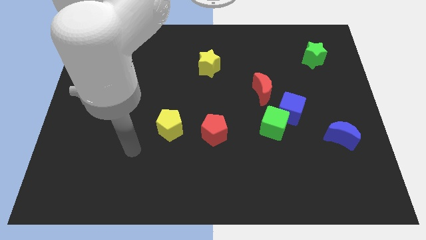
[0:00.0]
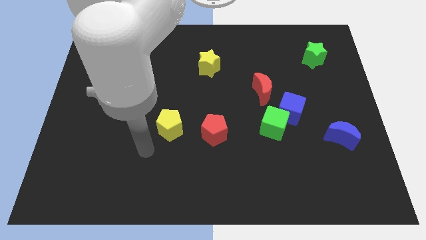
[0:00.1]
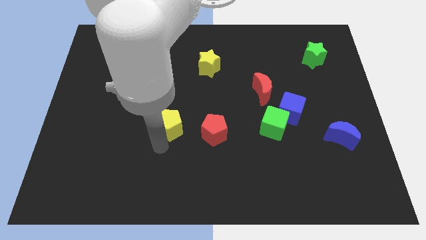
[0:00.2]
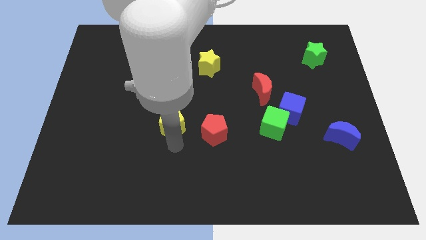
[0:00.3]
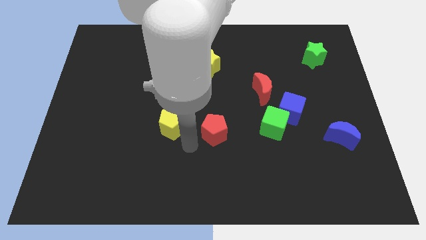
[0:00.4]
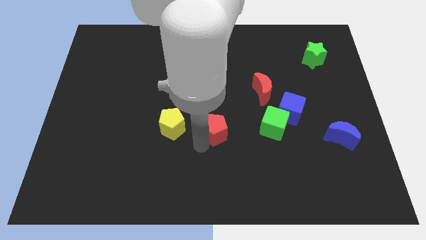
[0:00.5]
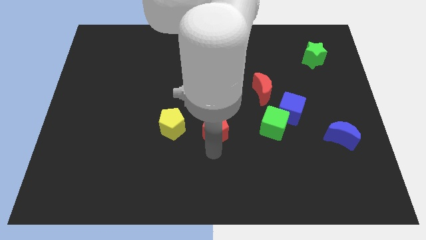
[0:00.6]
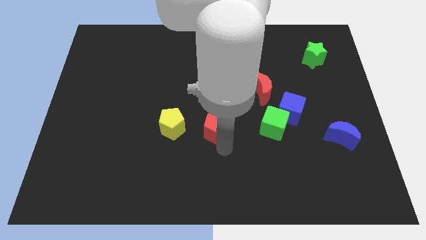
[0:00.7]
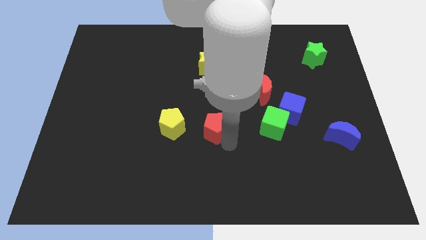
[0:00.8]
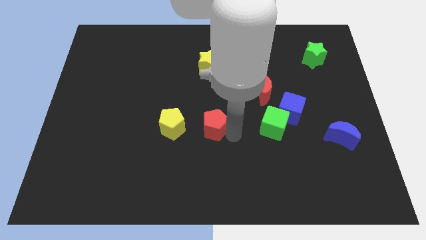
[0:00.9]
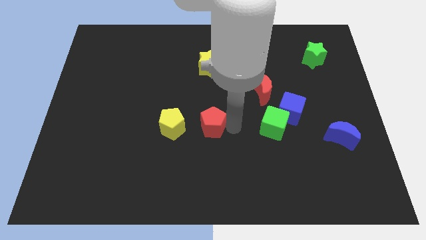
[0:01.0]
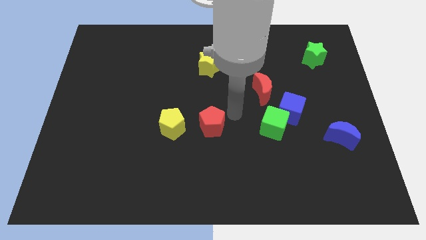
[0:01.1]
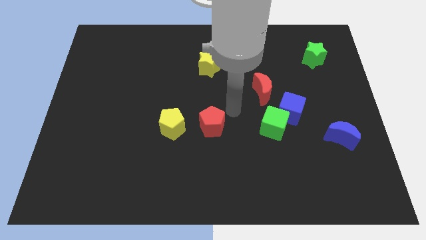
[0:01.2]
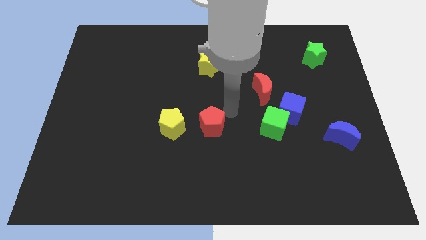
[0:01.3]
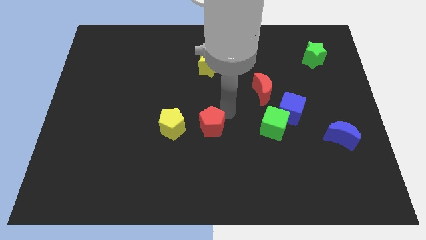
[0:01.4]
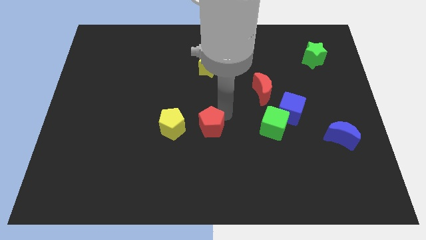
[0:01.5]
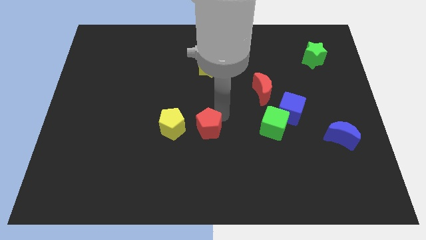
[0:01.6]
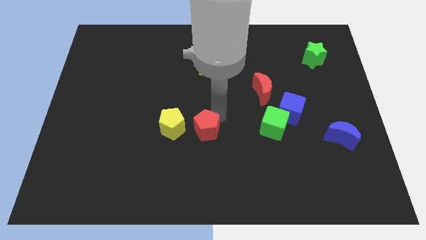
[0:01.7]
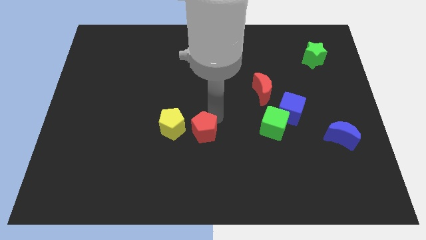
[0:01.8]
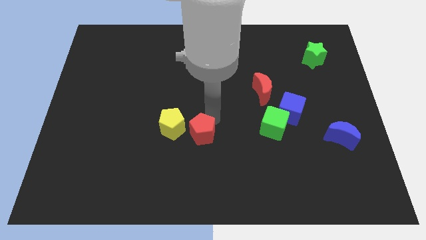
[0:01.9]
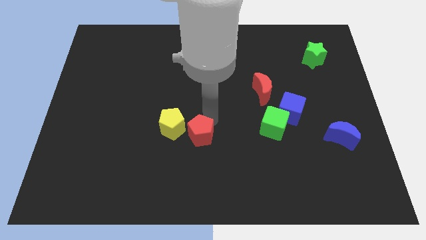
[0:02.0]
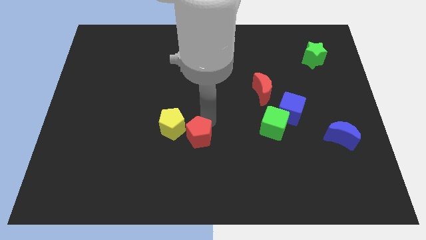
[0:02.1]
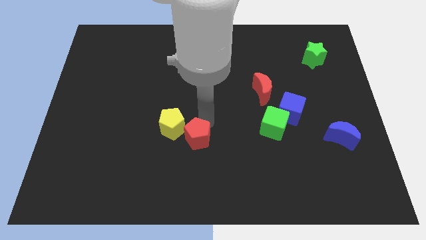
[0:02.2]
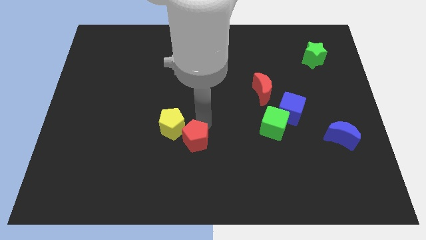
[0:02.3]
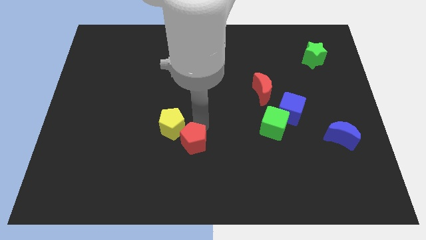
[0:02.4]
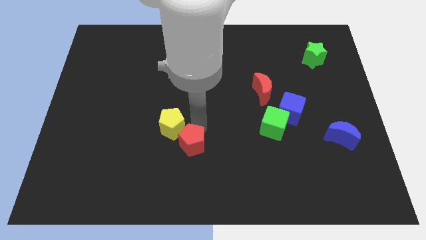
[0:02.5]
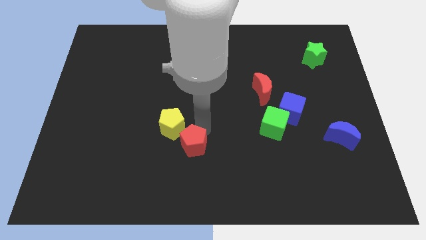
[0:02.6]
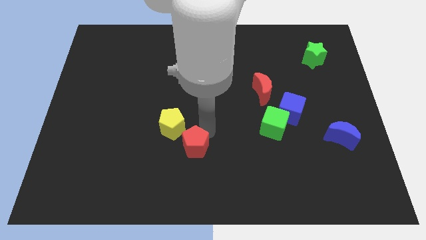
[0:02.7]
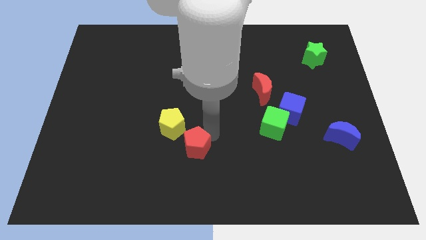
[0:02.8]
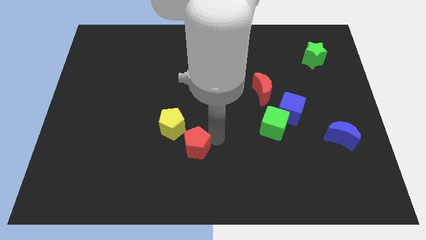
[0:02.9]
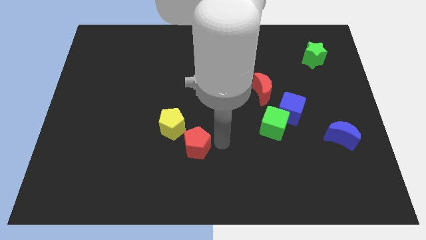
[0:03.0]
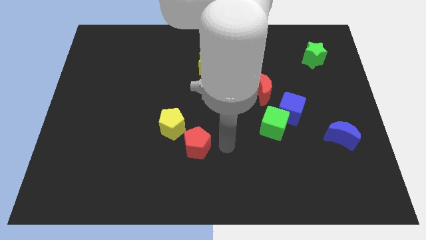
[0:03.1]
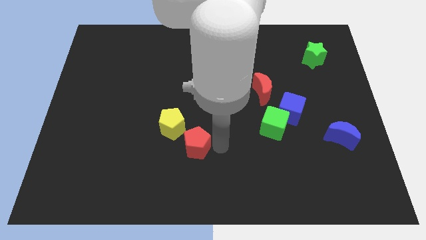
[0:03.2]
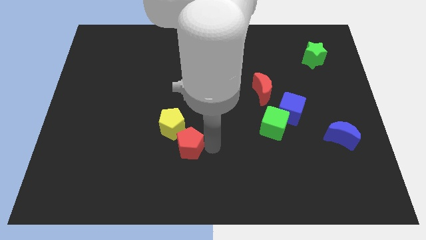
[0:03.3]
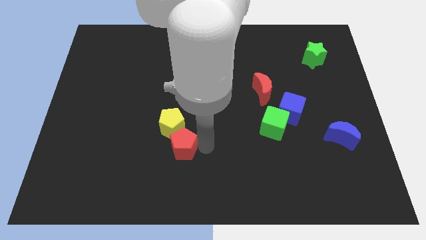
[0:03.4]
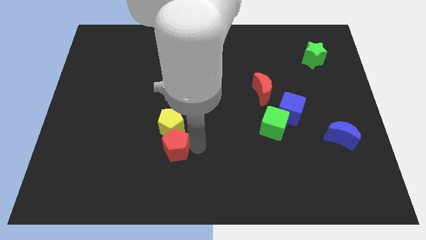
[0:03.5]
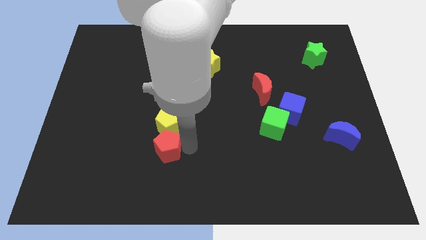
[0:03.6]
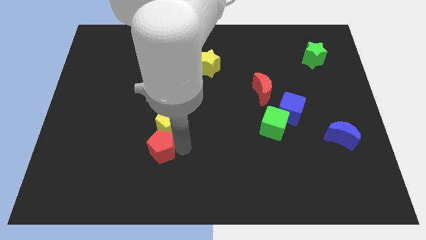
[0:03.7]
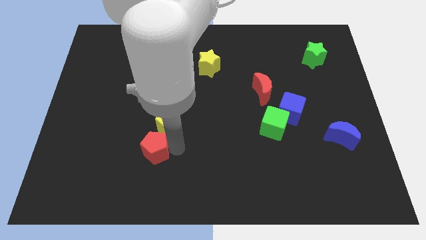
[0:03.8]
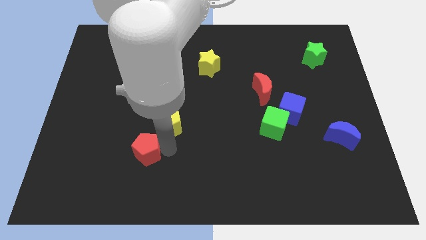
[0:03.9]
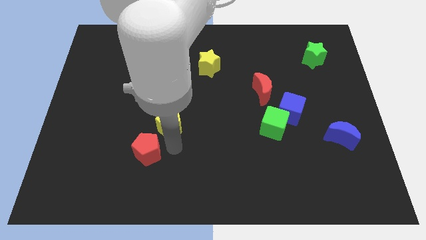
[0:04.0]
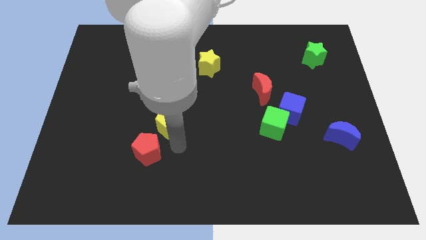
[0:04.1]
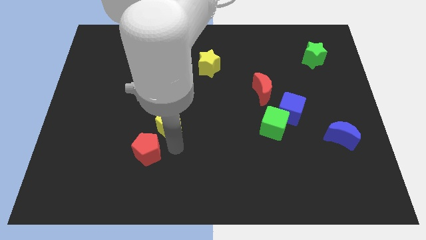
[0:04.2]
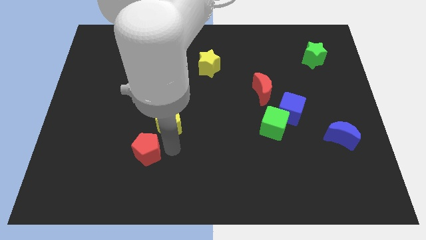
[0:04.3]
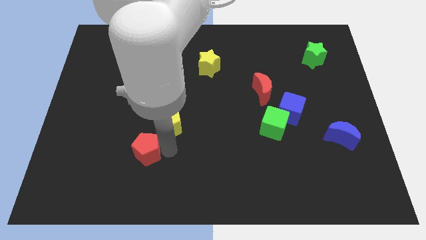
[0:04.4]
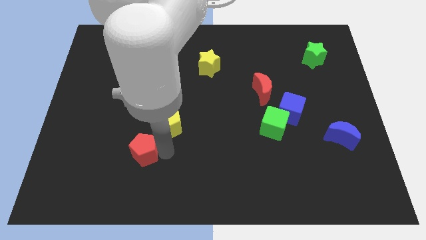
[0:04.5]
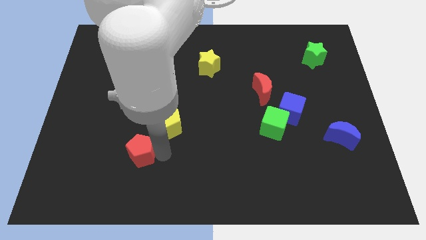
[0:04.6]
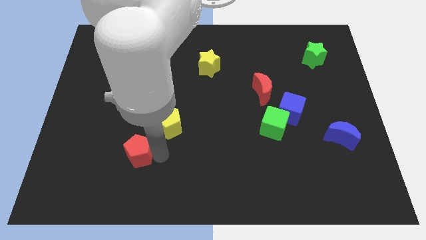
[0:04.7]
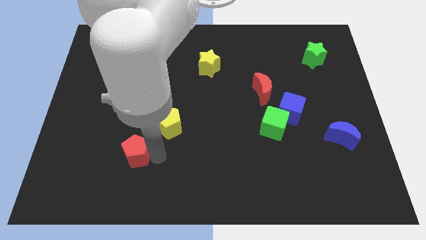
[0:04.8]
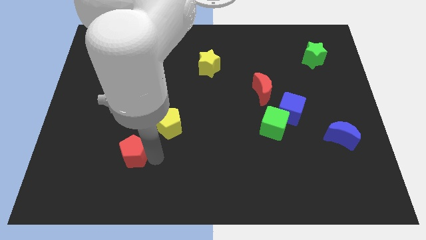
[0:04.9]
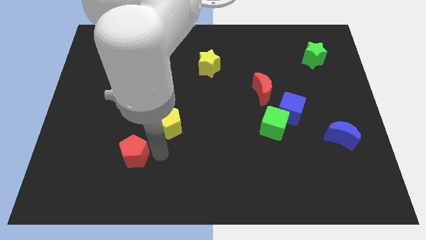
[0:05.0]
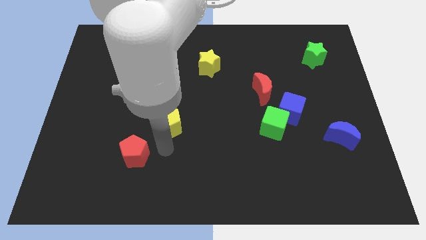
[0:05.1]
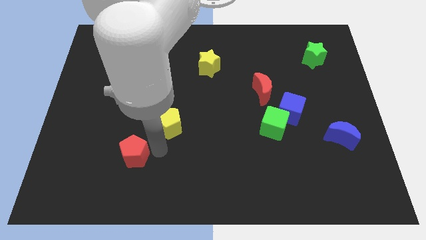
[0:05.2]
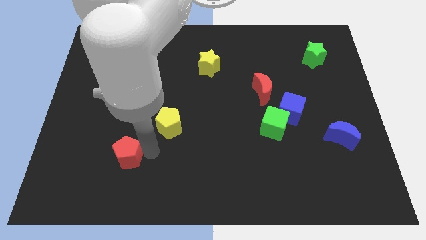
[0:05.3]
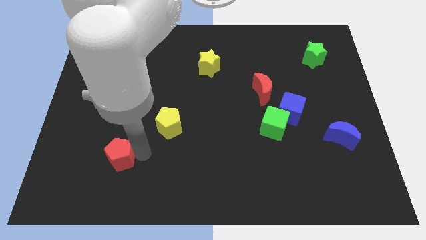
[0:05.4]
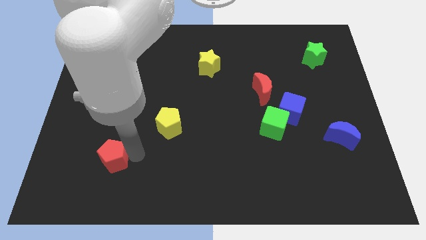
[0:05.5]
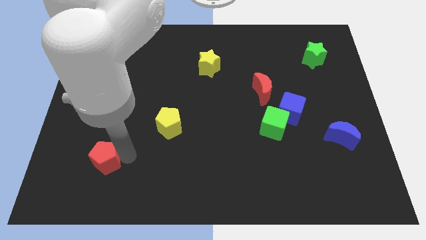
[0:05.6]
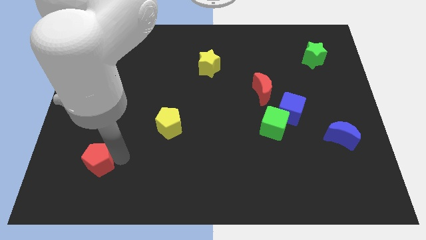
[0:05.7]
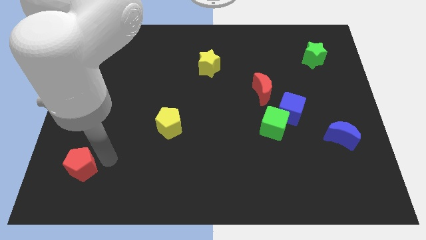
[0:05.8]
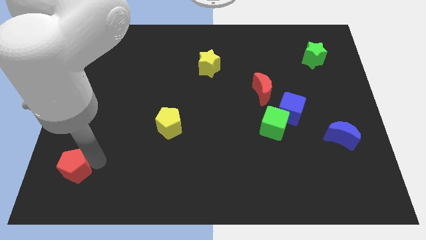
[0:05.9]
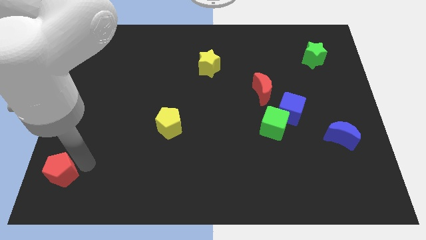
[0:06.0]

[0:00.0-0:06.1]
push the red pentagon to the bottom left of the board

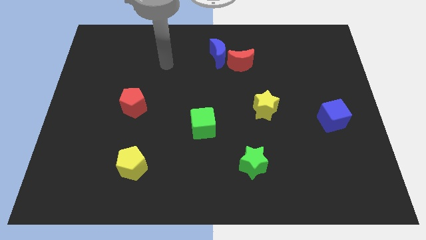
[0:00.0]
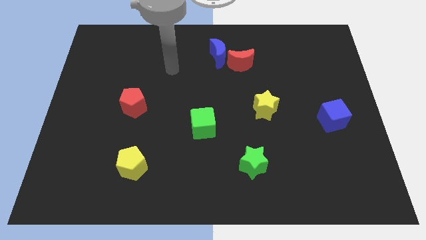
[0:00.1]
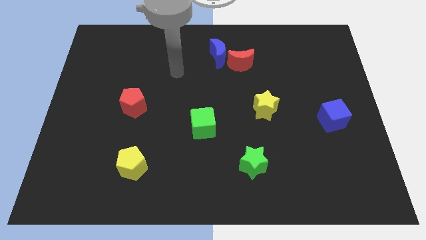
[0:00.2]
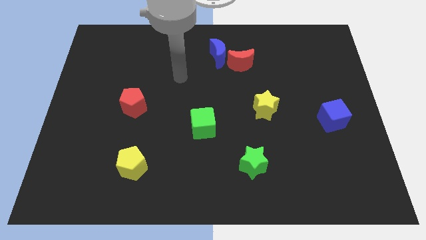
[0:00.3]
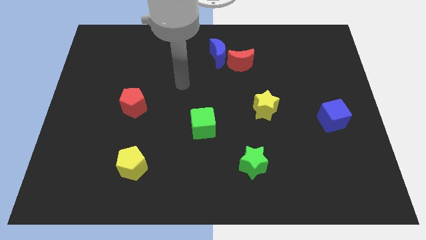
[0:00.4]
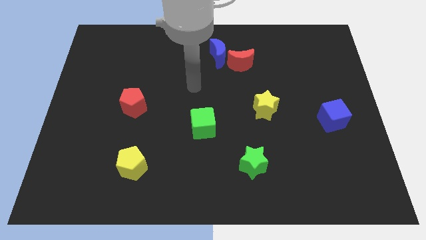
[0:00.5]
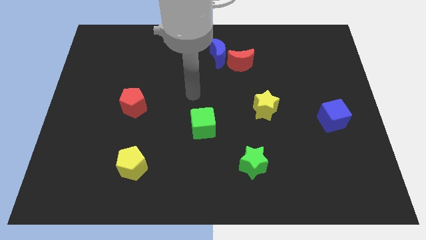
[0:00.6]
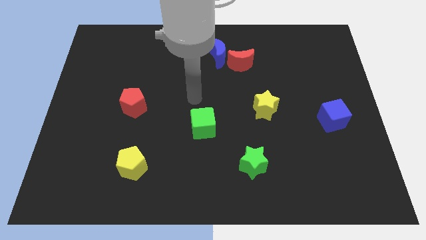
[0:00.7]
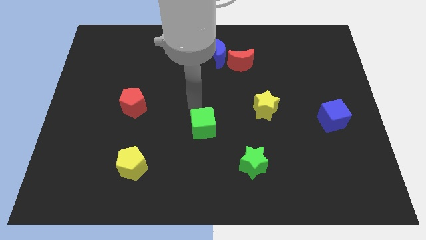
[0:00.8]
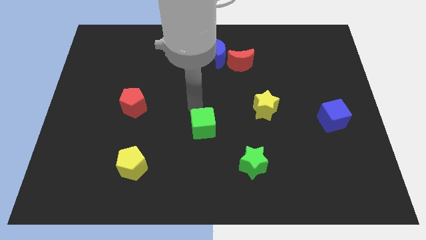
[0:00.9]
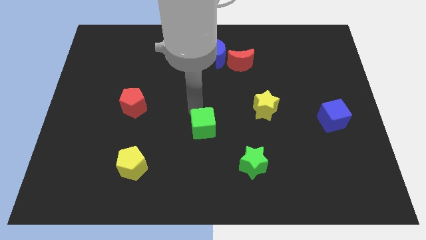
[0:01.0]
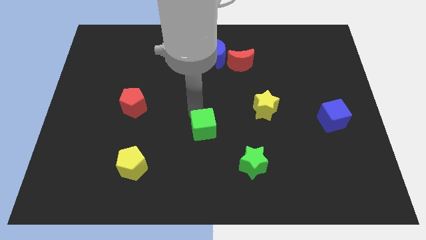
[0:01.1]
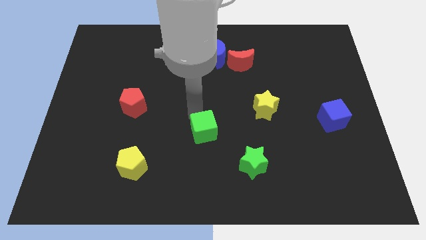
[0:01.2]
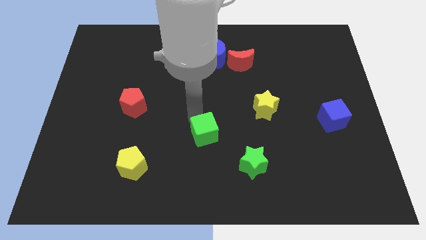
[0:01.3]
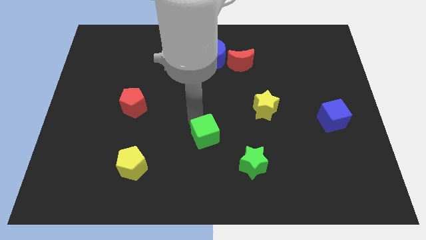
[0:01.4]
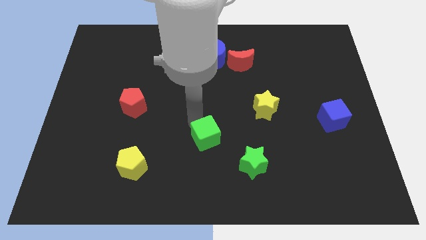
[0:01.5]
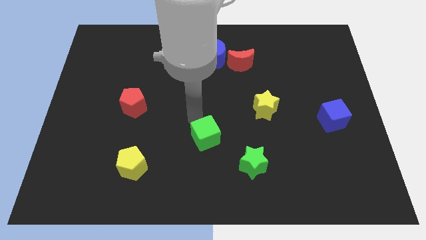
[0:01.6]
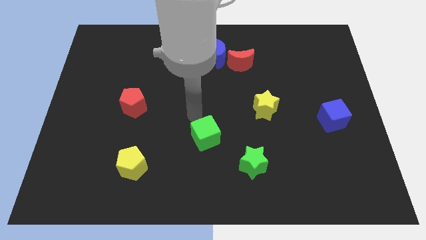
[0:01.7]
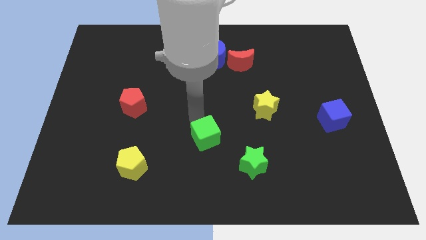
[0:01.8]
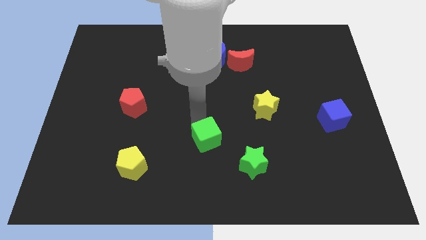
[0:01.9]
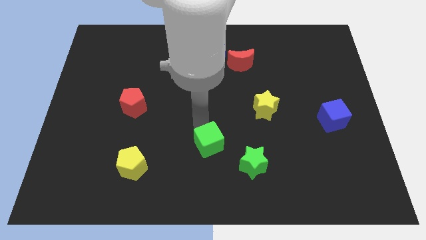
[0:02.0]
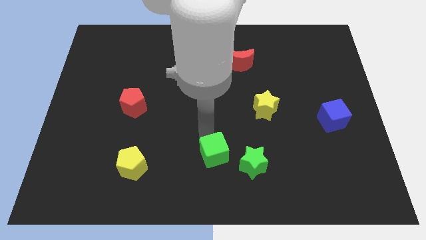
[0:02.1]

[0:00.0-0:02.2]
move the green cube to the bottom
